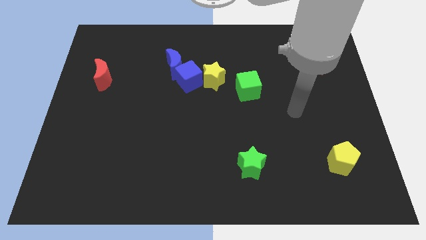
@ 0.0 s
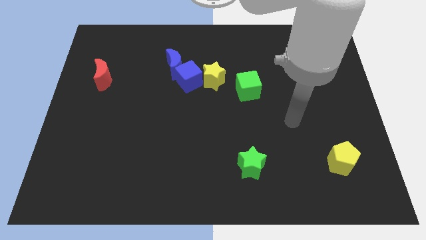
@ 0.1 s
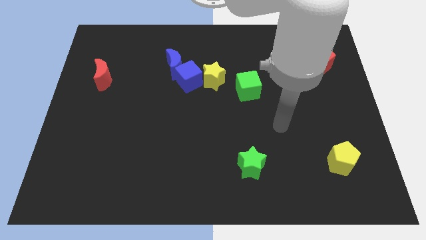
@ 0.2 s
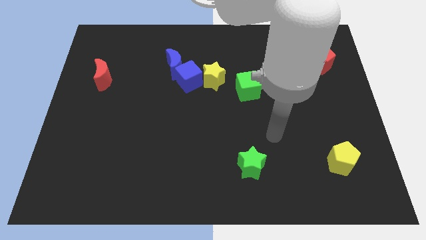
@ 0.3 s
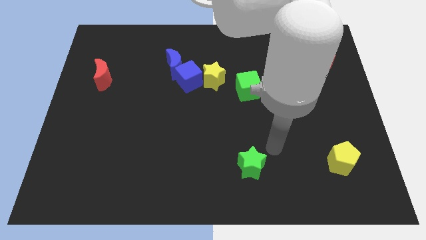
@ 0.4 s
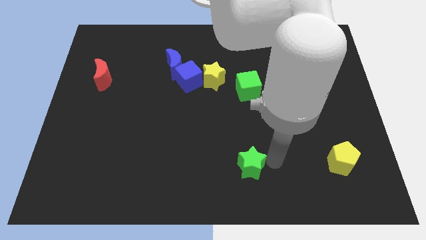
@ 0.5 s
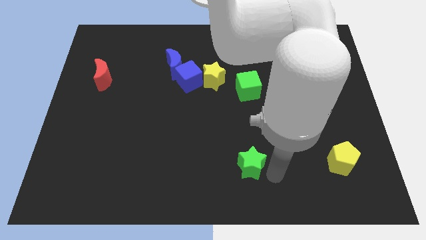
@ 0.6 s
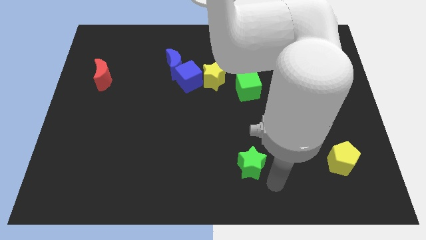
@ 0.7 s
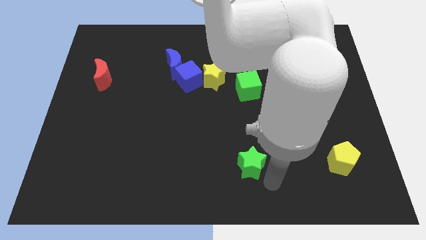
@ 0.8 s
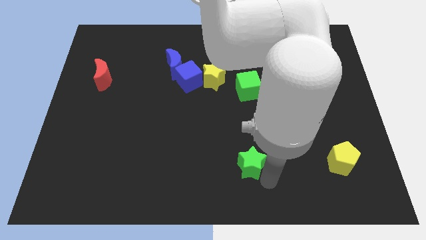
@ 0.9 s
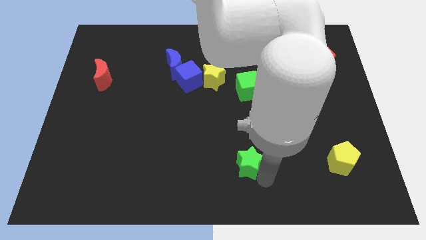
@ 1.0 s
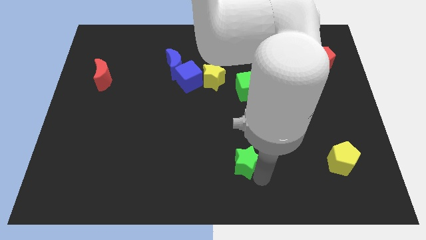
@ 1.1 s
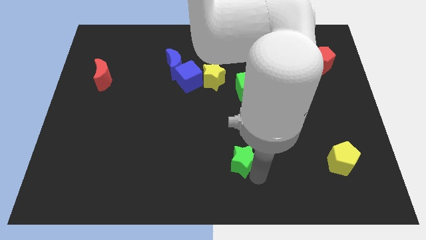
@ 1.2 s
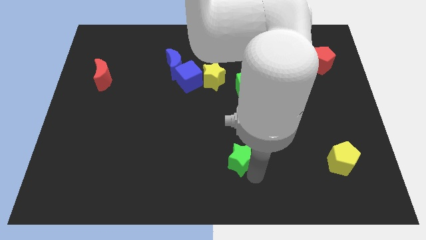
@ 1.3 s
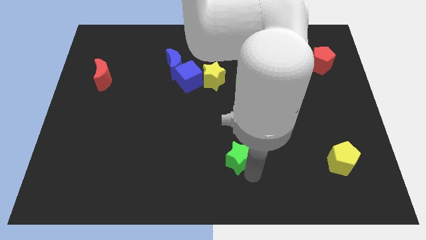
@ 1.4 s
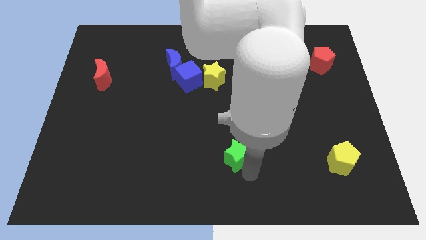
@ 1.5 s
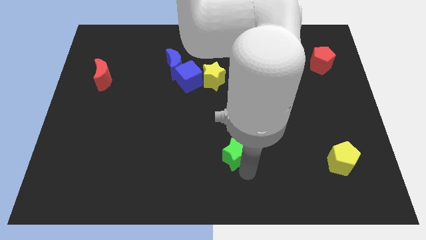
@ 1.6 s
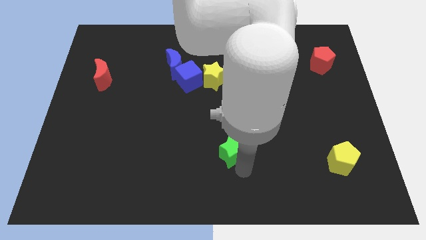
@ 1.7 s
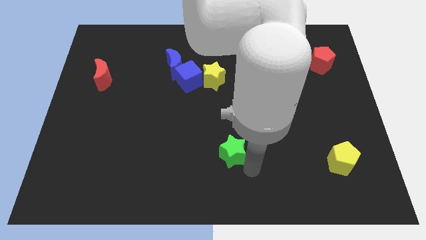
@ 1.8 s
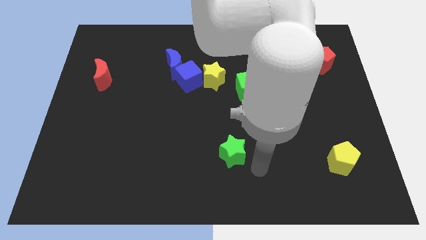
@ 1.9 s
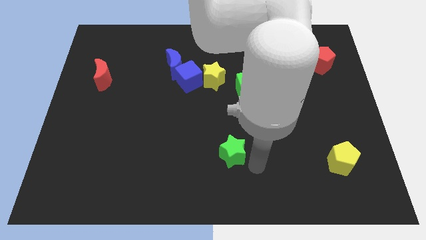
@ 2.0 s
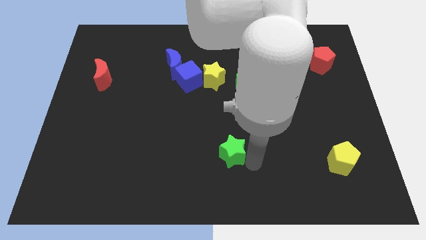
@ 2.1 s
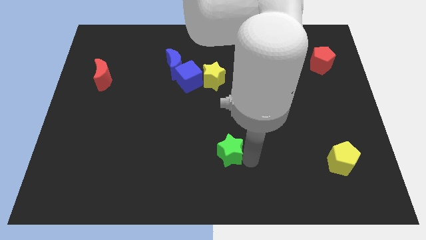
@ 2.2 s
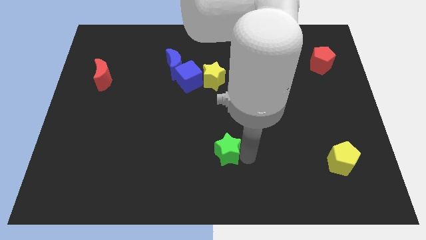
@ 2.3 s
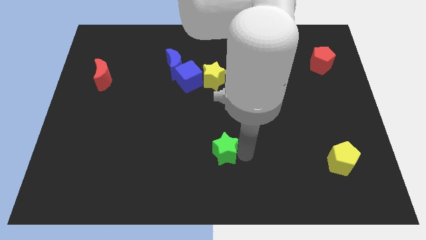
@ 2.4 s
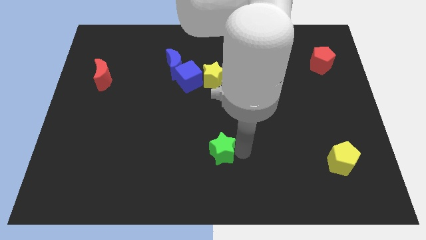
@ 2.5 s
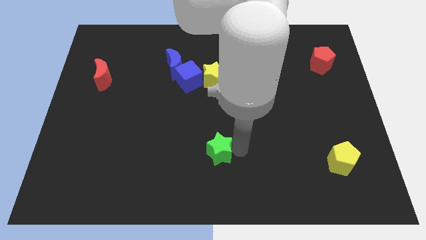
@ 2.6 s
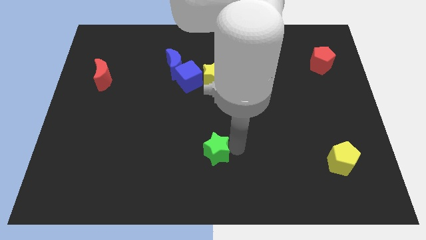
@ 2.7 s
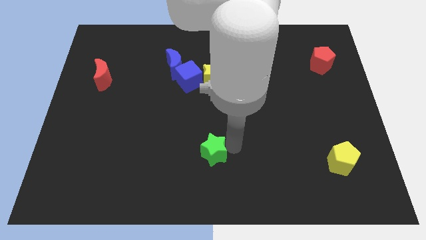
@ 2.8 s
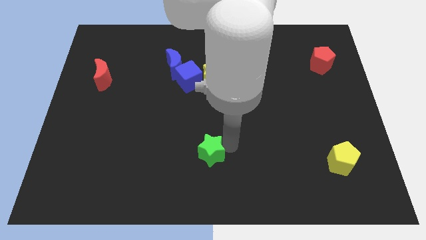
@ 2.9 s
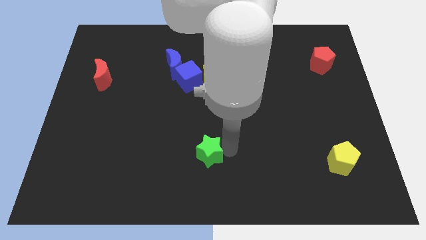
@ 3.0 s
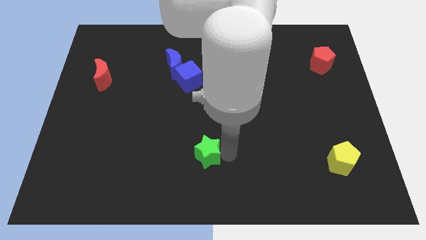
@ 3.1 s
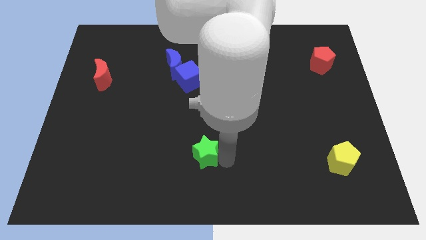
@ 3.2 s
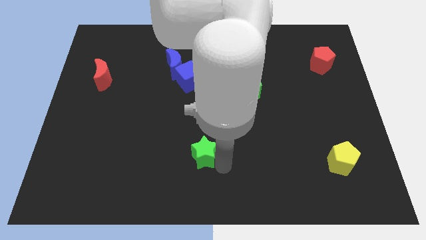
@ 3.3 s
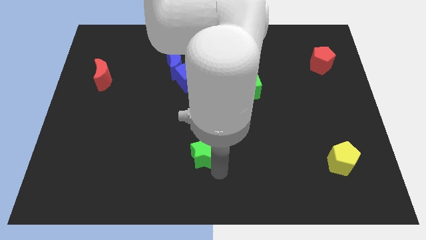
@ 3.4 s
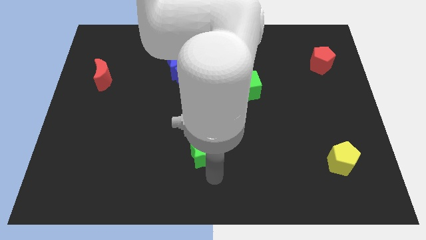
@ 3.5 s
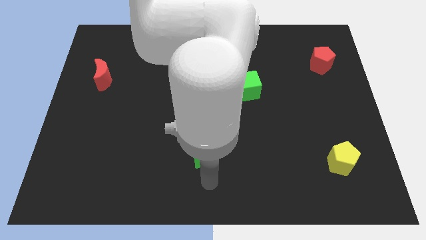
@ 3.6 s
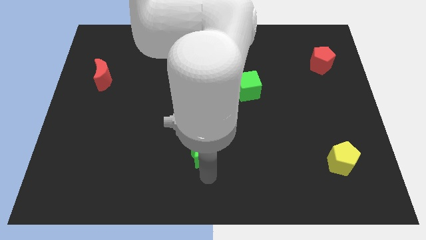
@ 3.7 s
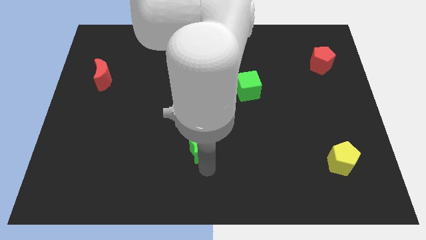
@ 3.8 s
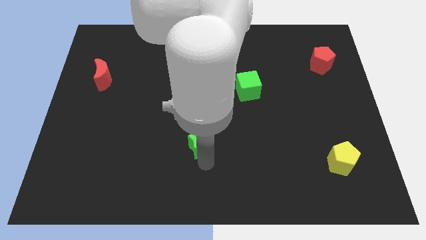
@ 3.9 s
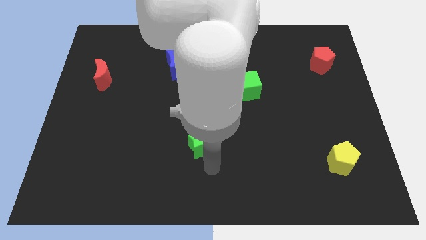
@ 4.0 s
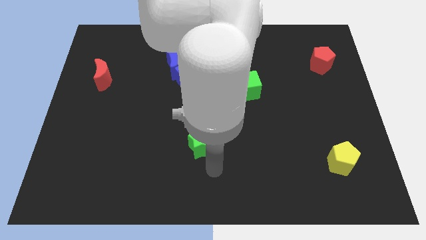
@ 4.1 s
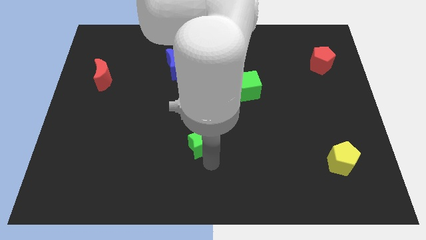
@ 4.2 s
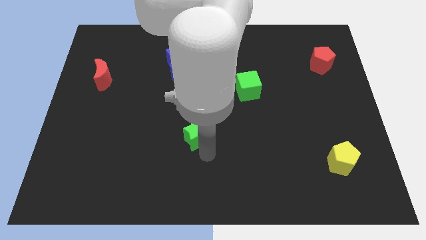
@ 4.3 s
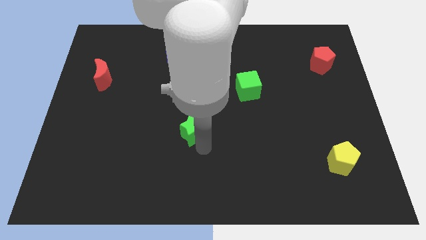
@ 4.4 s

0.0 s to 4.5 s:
move the green star to the bottom of the blue cube

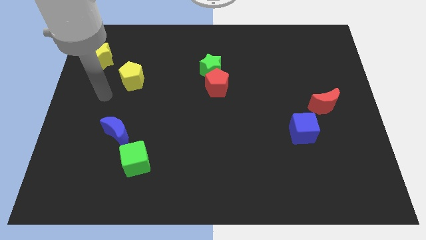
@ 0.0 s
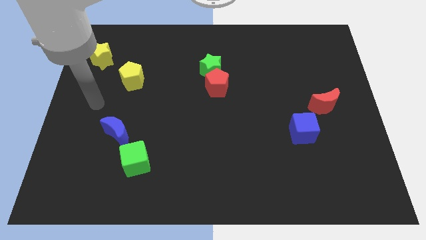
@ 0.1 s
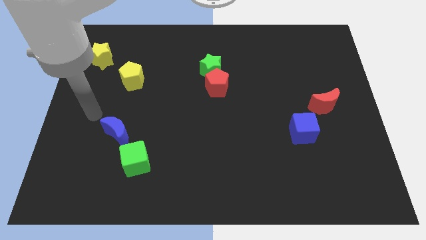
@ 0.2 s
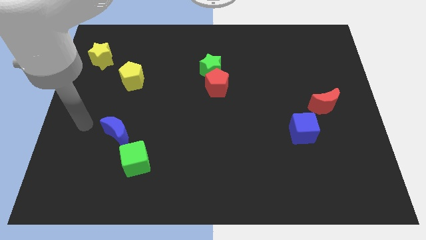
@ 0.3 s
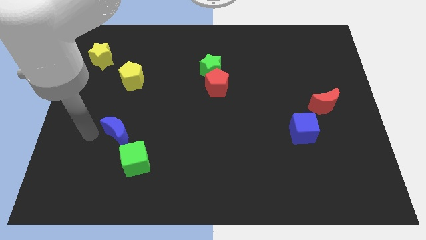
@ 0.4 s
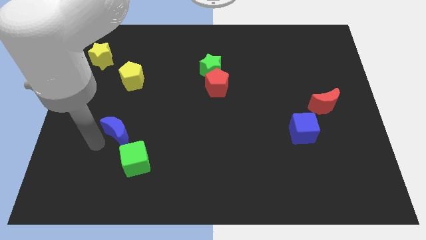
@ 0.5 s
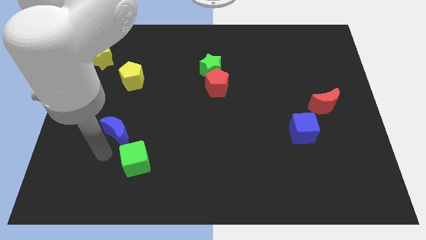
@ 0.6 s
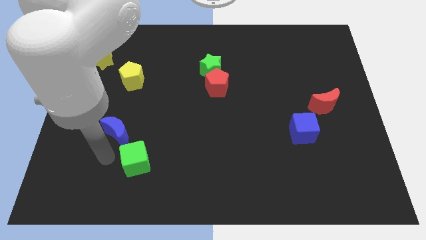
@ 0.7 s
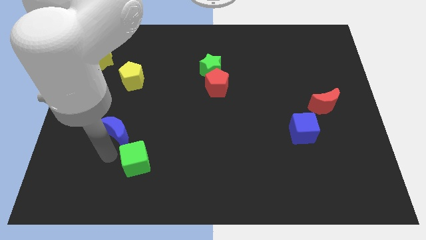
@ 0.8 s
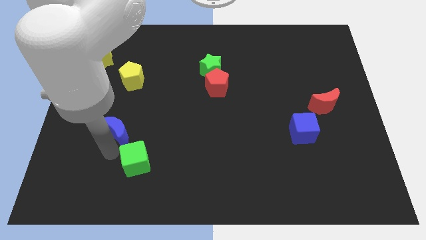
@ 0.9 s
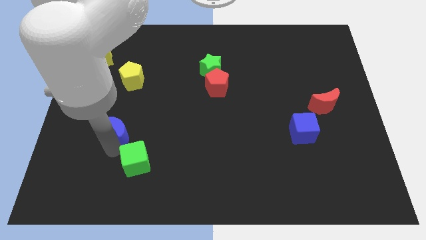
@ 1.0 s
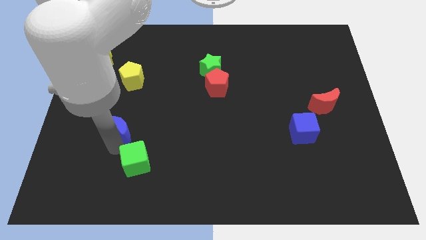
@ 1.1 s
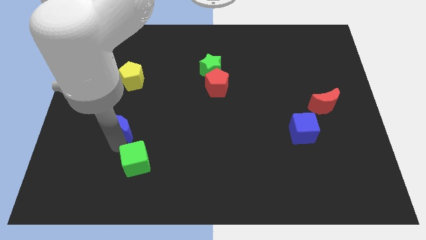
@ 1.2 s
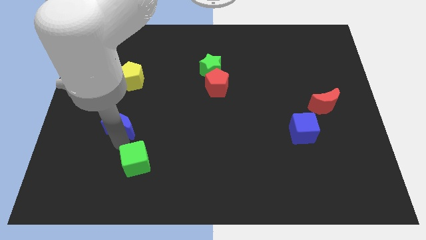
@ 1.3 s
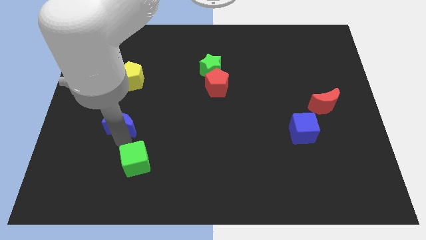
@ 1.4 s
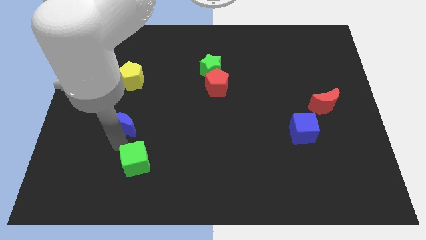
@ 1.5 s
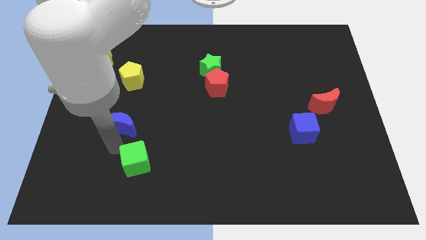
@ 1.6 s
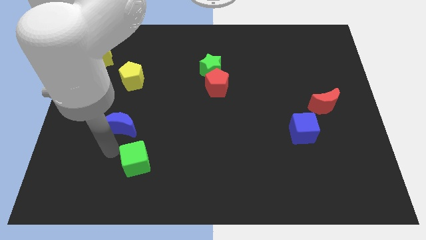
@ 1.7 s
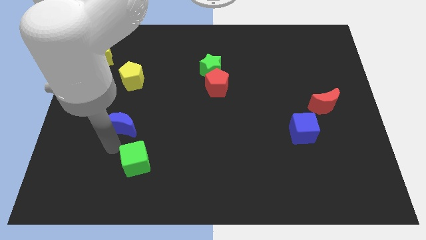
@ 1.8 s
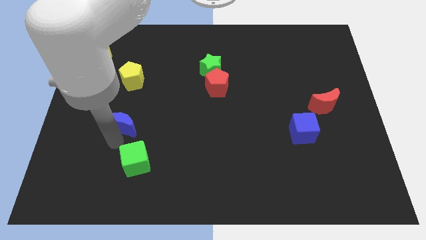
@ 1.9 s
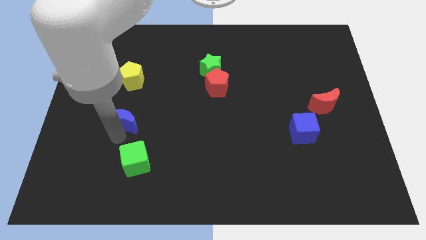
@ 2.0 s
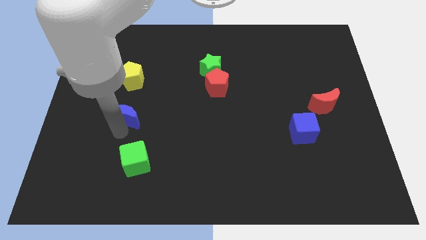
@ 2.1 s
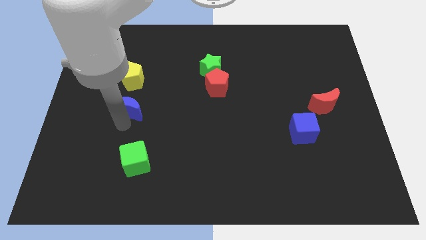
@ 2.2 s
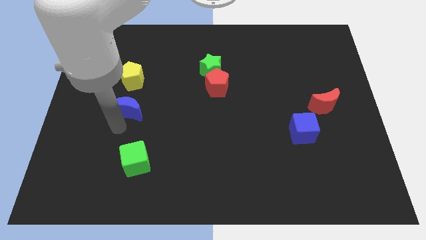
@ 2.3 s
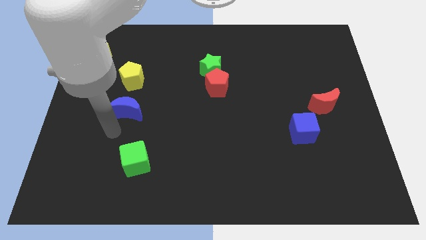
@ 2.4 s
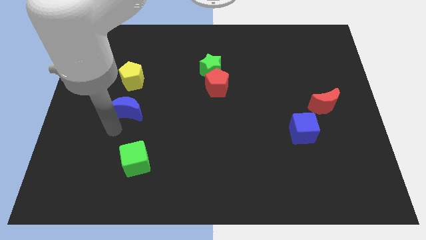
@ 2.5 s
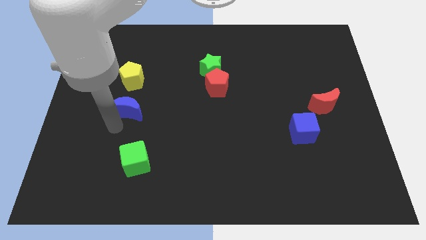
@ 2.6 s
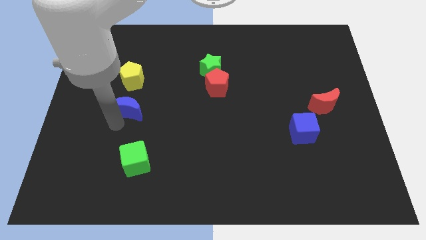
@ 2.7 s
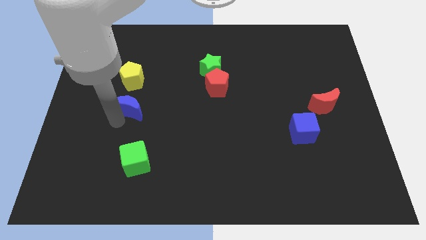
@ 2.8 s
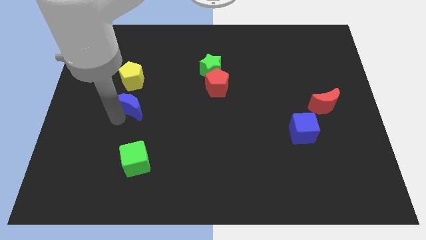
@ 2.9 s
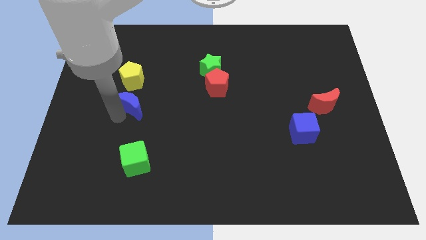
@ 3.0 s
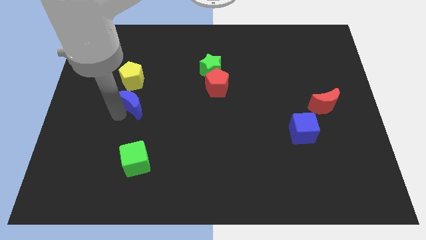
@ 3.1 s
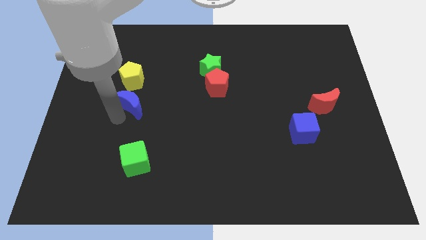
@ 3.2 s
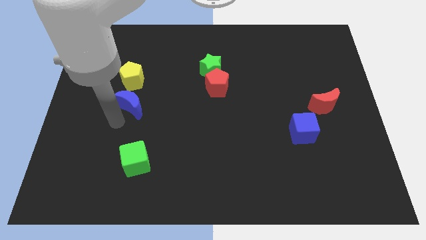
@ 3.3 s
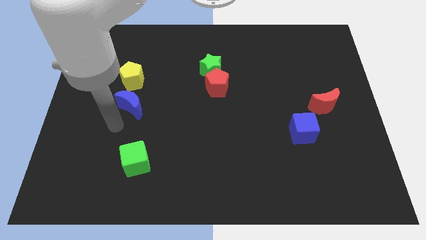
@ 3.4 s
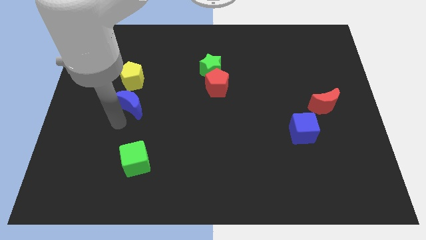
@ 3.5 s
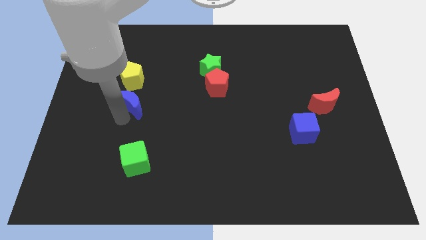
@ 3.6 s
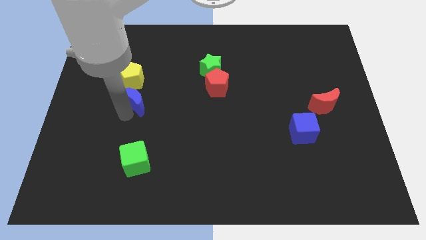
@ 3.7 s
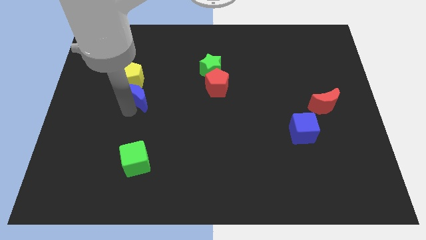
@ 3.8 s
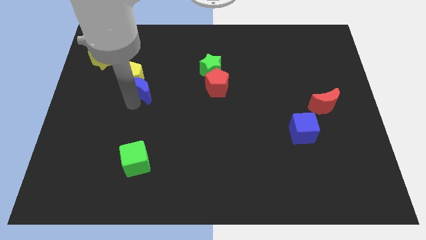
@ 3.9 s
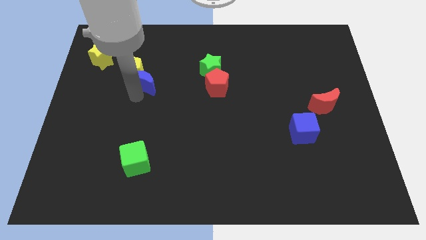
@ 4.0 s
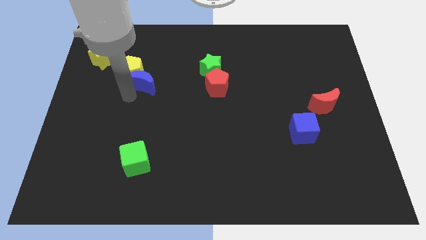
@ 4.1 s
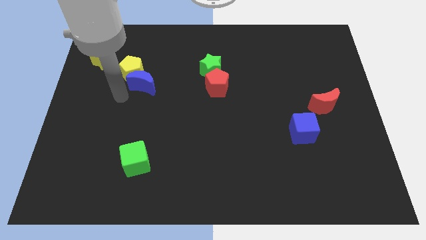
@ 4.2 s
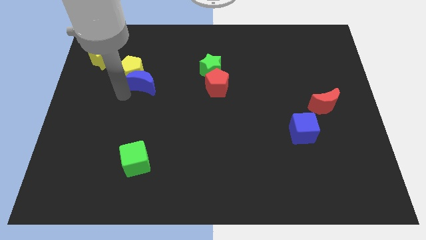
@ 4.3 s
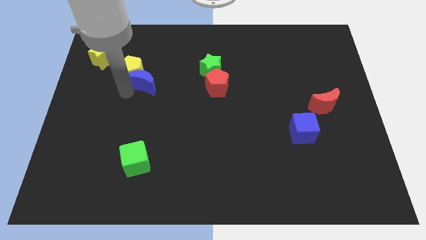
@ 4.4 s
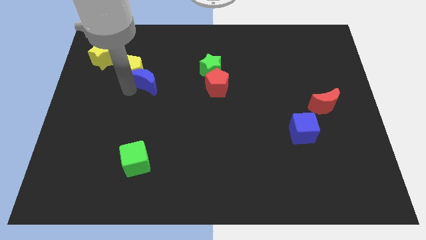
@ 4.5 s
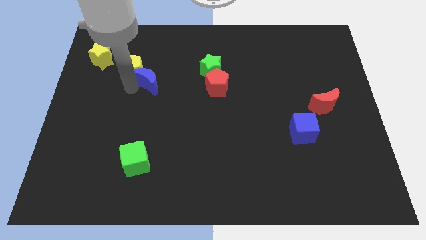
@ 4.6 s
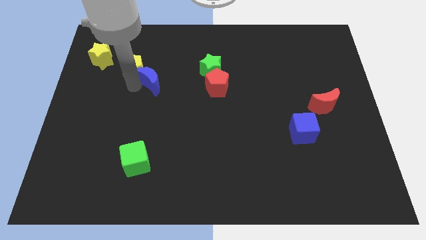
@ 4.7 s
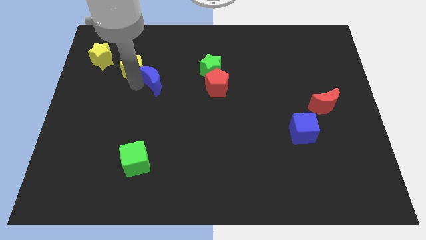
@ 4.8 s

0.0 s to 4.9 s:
slide the blue moon to the left of the green star
